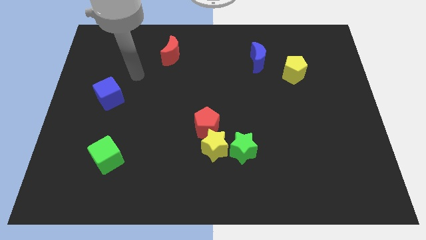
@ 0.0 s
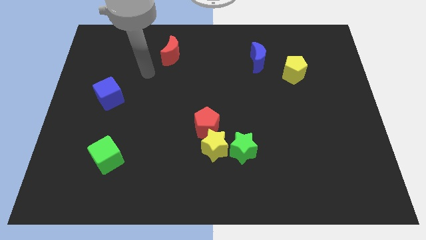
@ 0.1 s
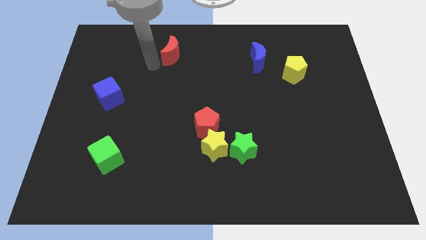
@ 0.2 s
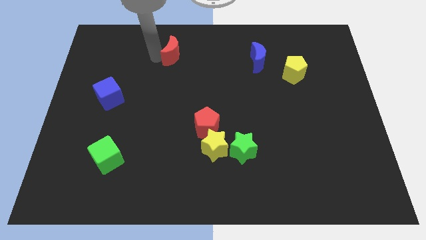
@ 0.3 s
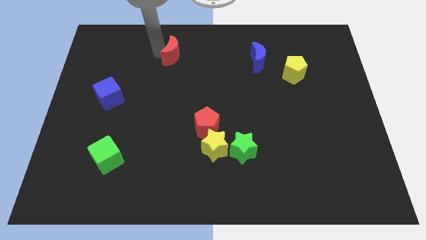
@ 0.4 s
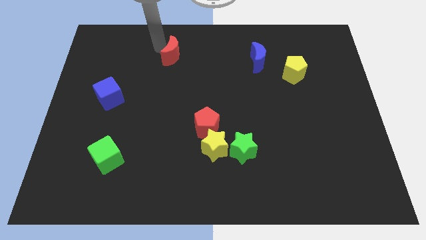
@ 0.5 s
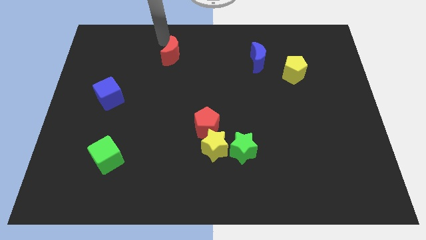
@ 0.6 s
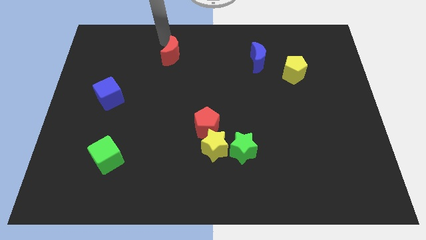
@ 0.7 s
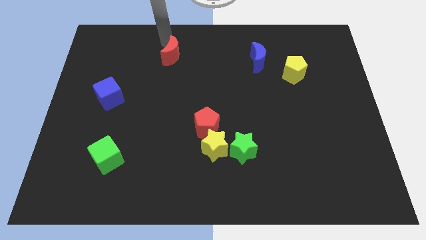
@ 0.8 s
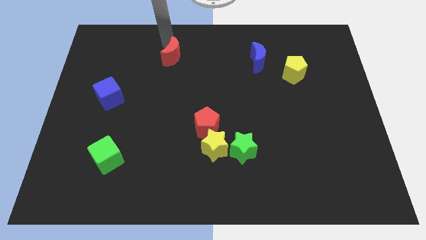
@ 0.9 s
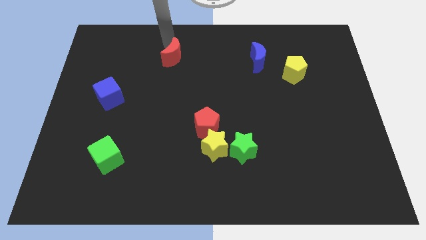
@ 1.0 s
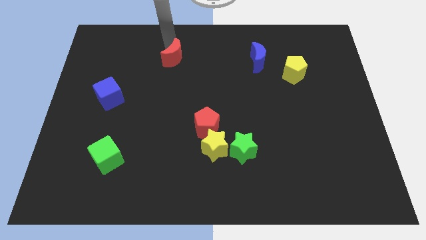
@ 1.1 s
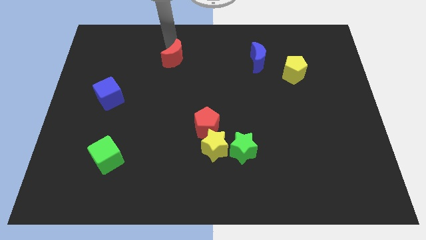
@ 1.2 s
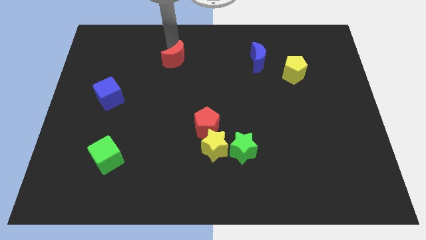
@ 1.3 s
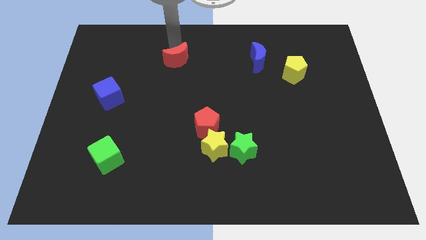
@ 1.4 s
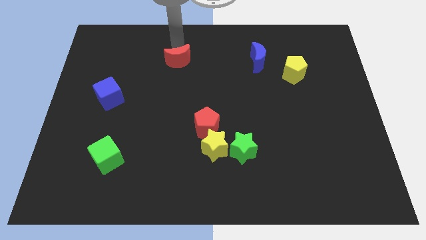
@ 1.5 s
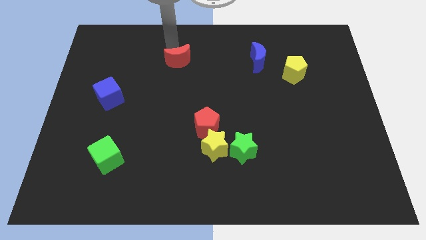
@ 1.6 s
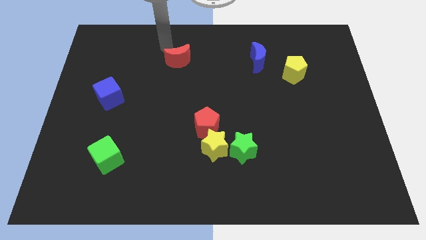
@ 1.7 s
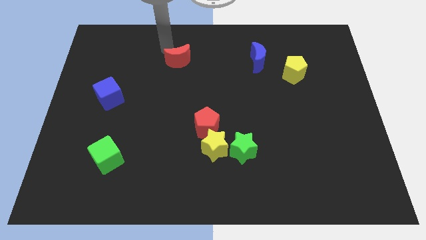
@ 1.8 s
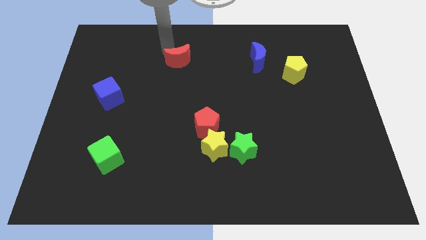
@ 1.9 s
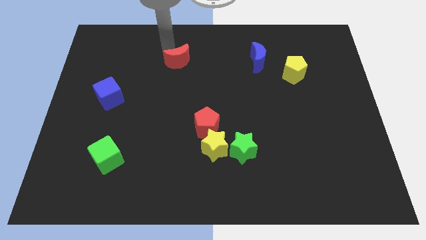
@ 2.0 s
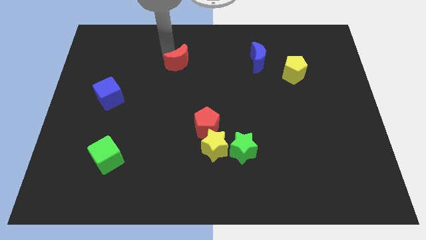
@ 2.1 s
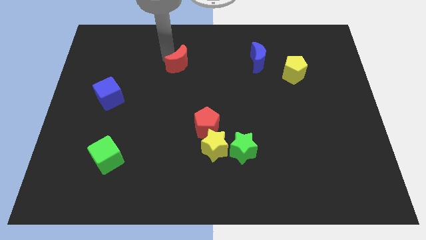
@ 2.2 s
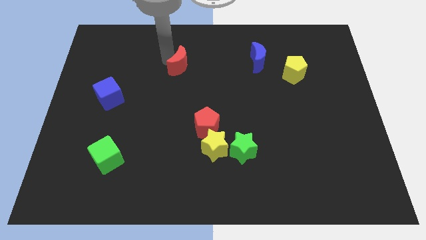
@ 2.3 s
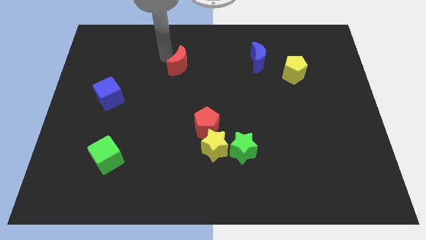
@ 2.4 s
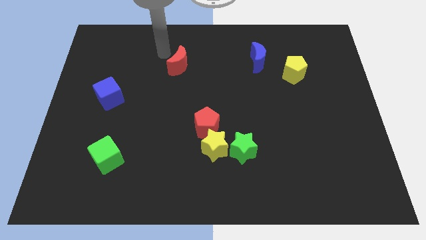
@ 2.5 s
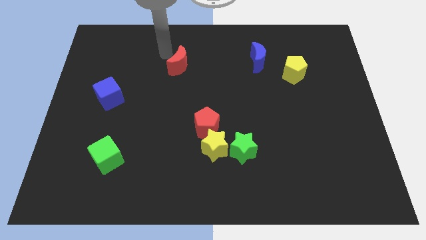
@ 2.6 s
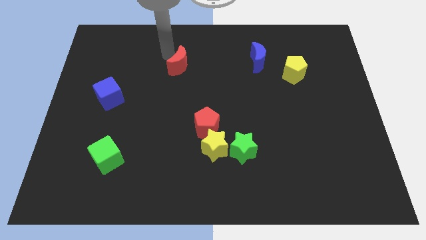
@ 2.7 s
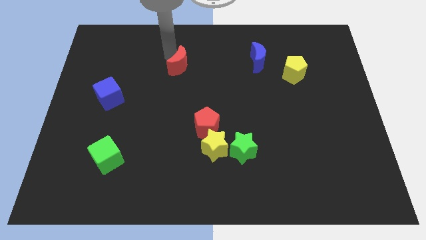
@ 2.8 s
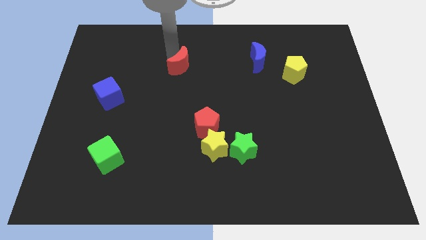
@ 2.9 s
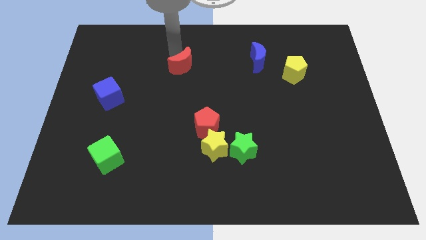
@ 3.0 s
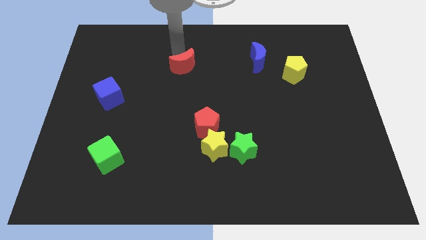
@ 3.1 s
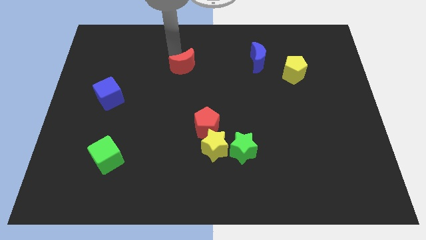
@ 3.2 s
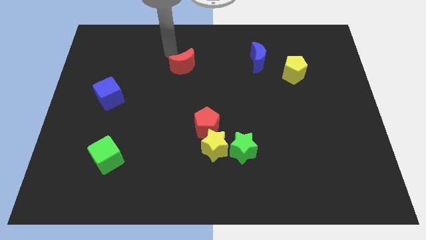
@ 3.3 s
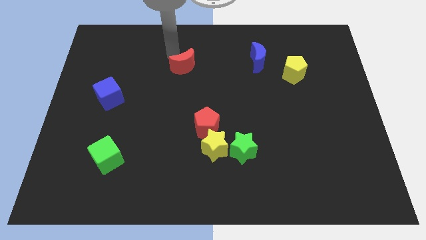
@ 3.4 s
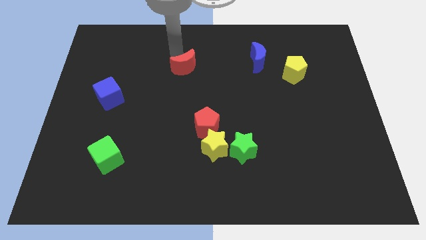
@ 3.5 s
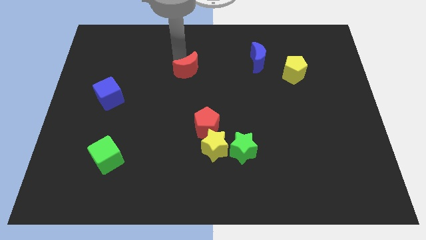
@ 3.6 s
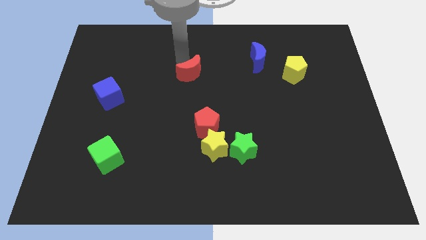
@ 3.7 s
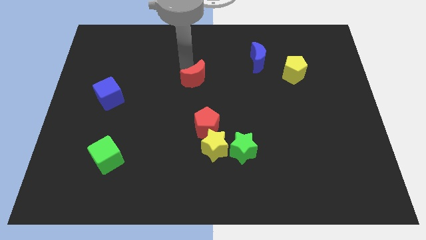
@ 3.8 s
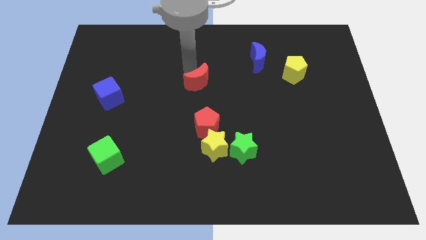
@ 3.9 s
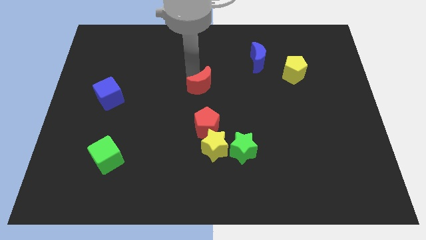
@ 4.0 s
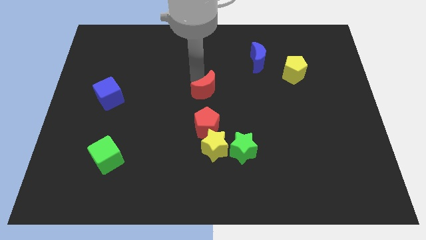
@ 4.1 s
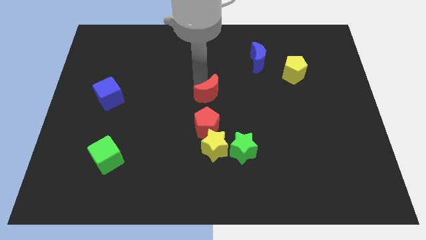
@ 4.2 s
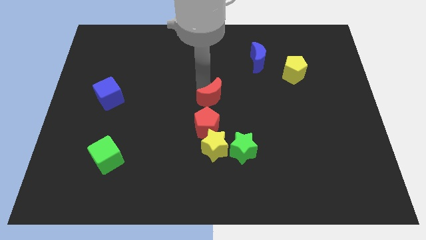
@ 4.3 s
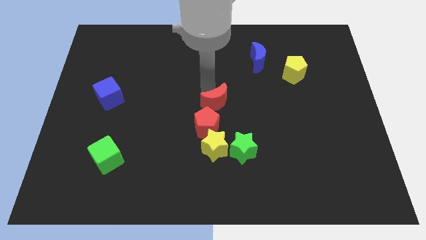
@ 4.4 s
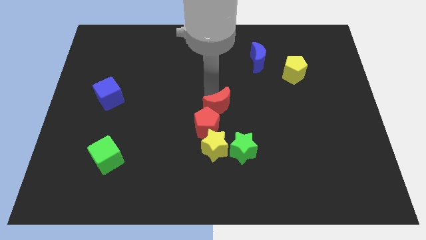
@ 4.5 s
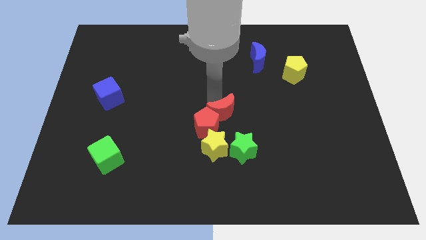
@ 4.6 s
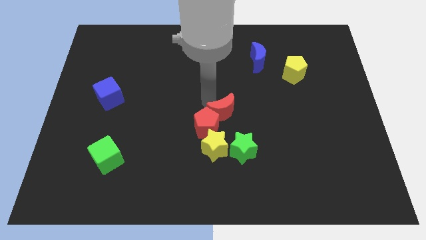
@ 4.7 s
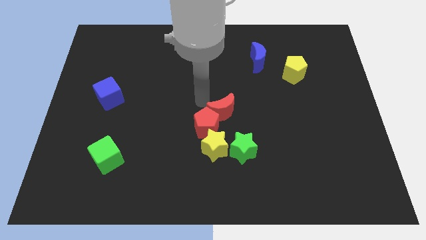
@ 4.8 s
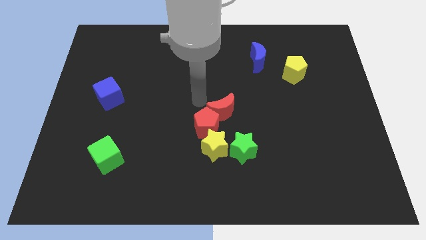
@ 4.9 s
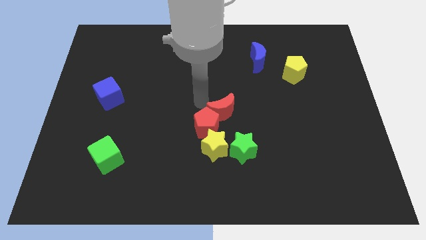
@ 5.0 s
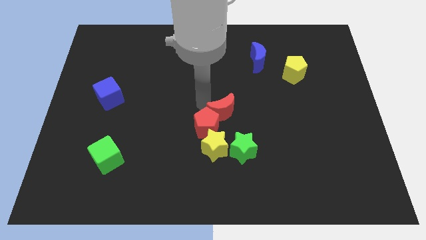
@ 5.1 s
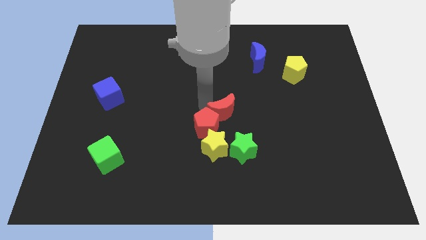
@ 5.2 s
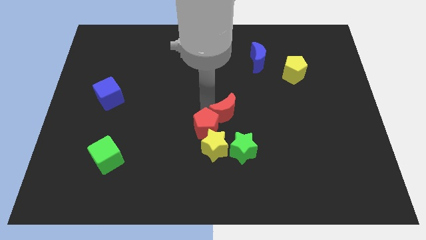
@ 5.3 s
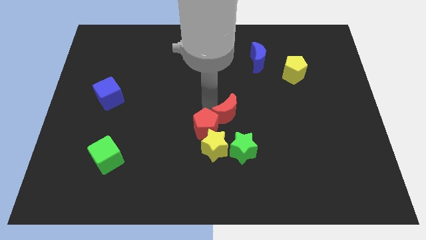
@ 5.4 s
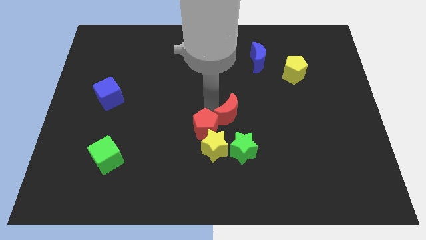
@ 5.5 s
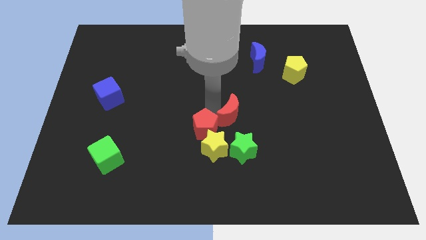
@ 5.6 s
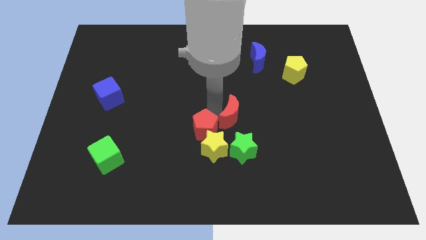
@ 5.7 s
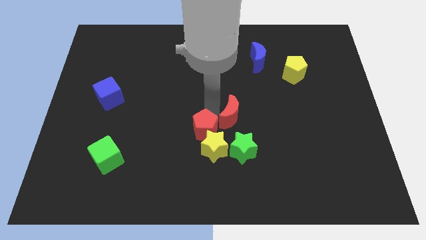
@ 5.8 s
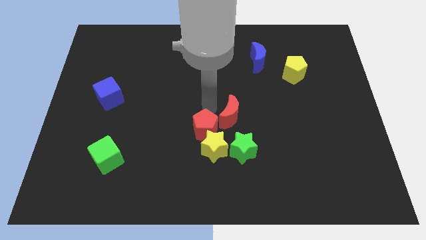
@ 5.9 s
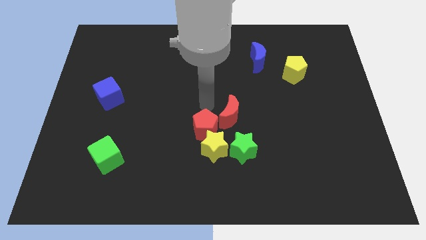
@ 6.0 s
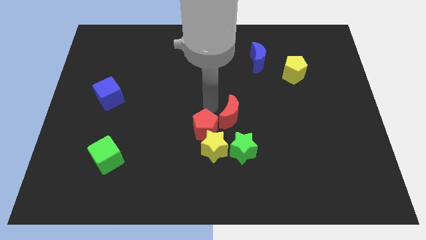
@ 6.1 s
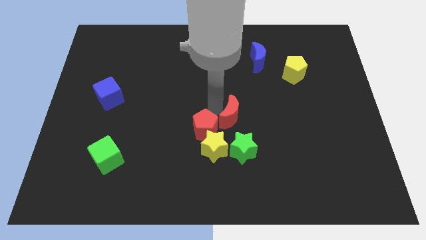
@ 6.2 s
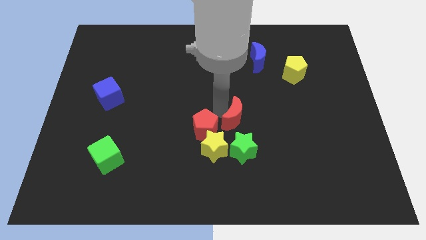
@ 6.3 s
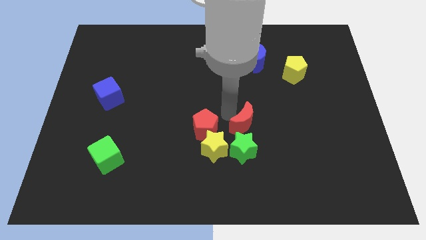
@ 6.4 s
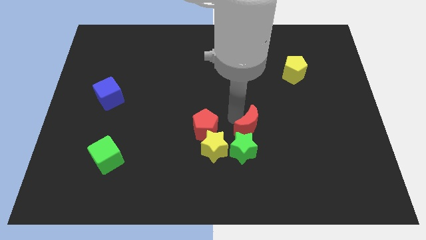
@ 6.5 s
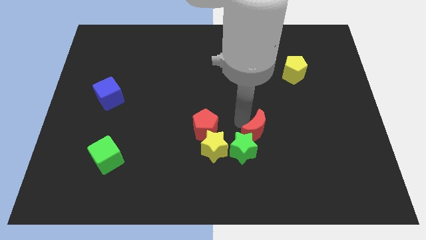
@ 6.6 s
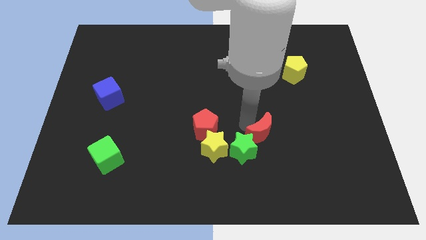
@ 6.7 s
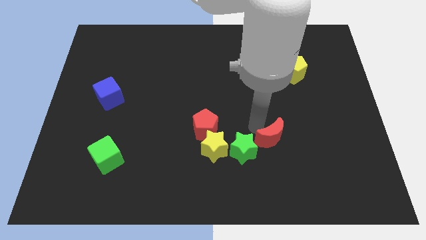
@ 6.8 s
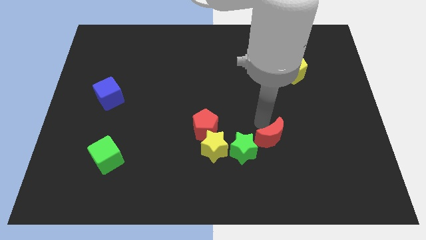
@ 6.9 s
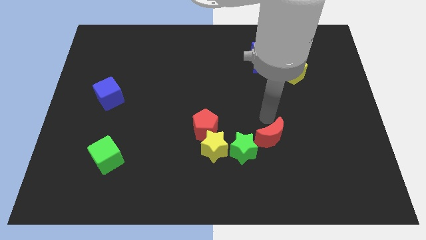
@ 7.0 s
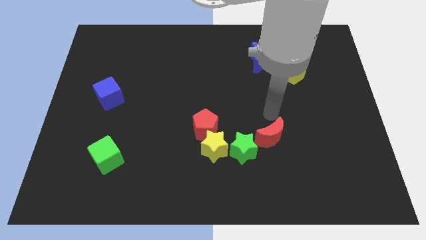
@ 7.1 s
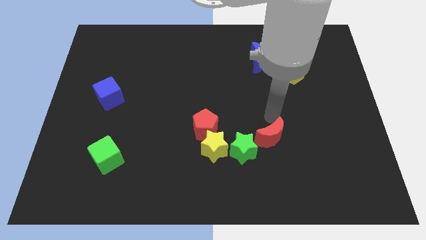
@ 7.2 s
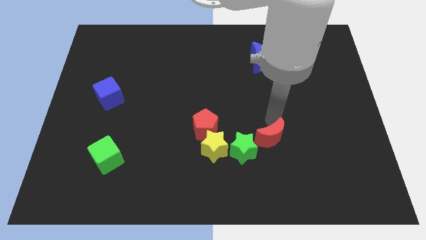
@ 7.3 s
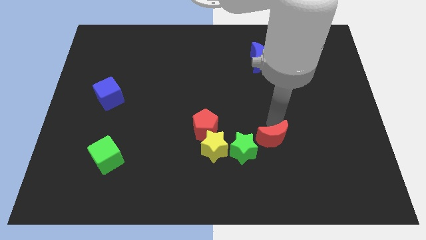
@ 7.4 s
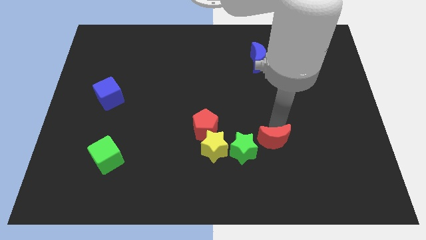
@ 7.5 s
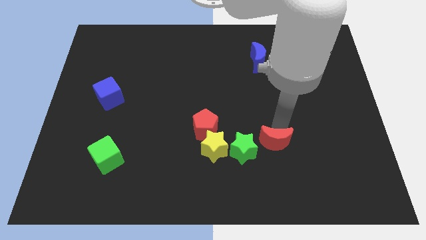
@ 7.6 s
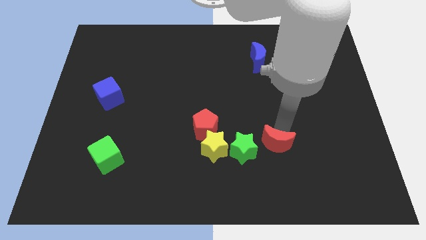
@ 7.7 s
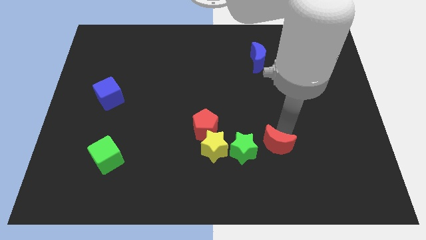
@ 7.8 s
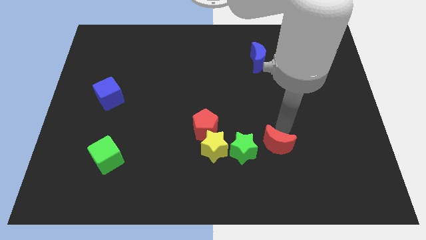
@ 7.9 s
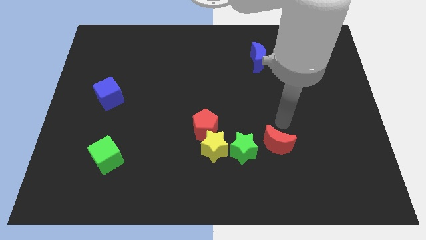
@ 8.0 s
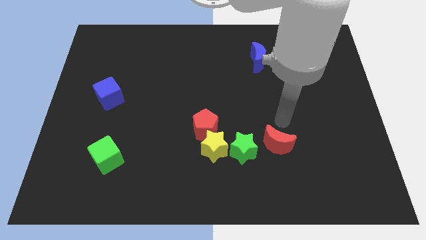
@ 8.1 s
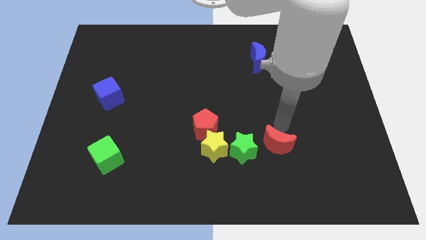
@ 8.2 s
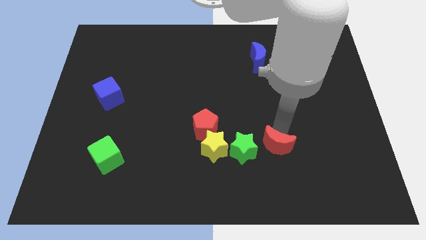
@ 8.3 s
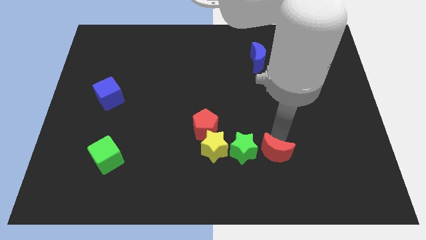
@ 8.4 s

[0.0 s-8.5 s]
slide the red moon to the bottom right side of the green star
